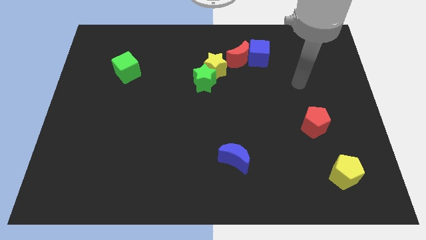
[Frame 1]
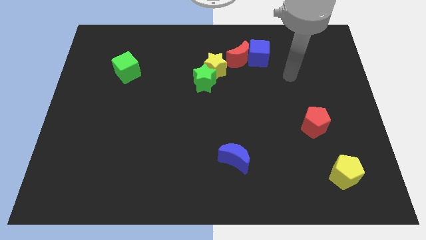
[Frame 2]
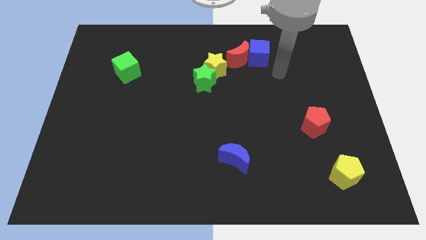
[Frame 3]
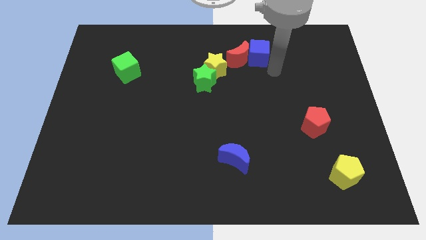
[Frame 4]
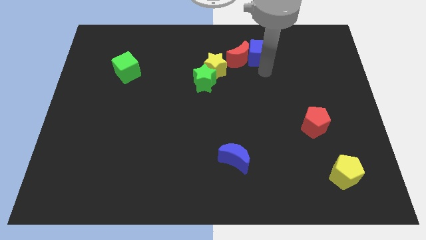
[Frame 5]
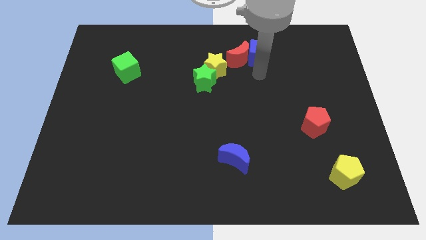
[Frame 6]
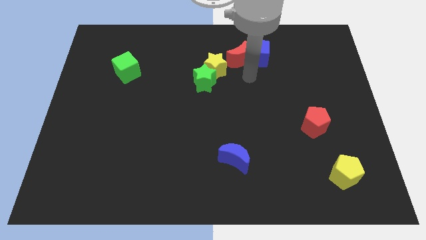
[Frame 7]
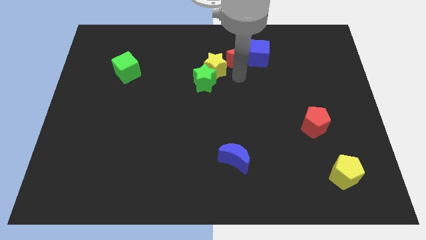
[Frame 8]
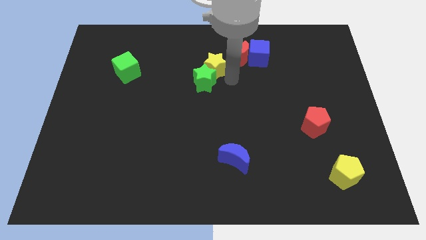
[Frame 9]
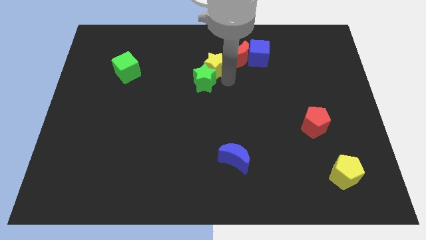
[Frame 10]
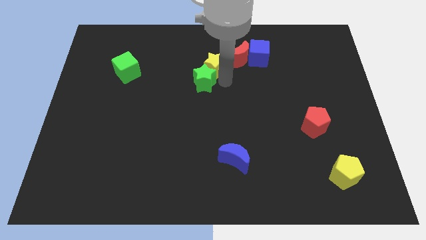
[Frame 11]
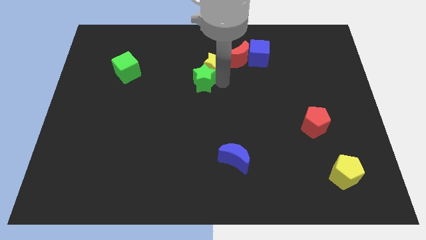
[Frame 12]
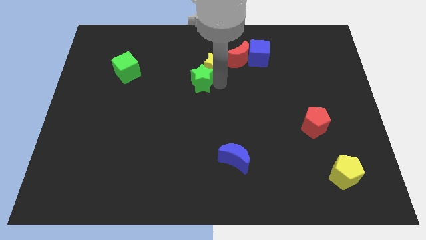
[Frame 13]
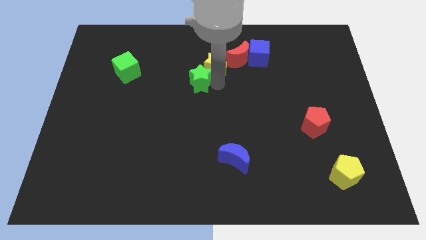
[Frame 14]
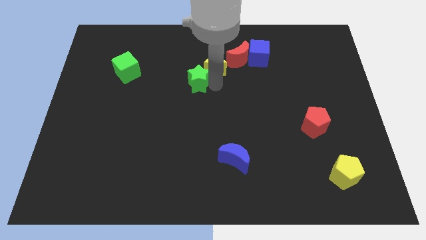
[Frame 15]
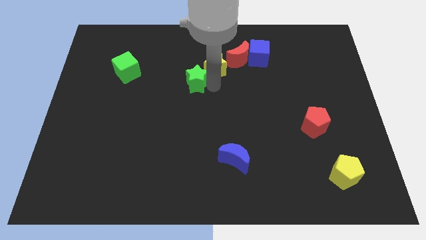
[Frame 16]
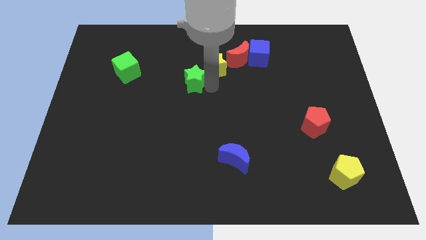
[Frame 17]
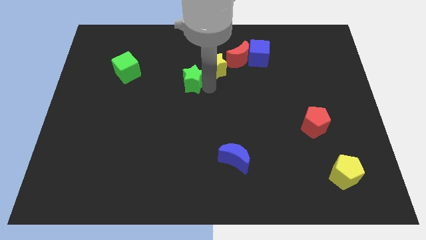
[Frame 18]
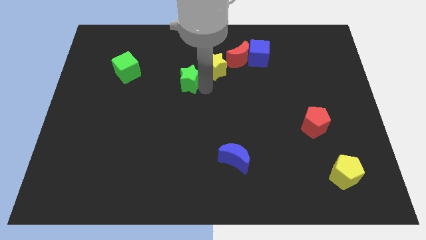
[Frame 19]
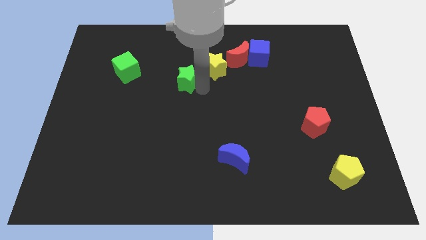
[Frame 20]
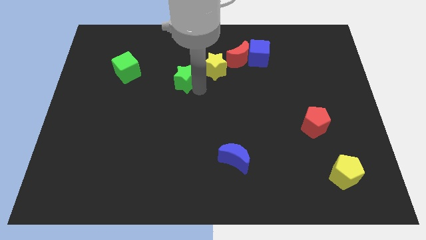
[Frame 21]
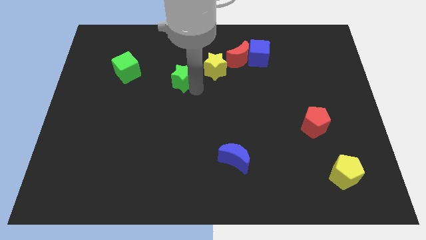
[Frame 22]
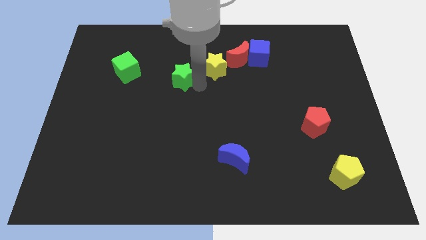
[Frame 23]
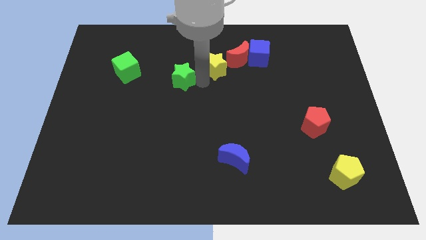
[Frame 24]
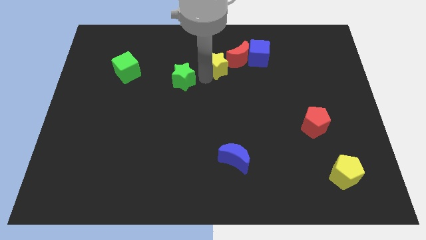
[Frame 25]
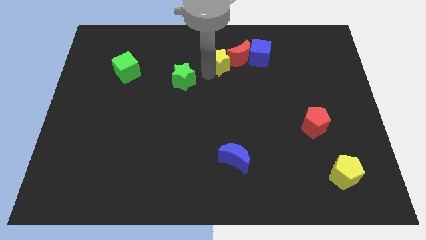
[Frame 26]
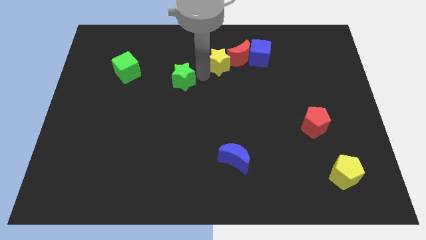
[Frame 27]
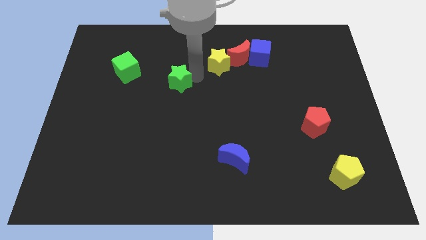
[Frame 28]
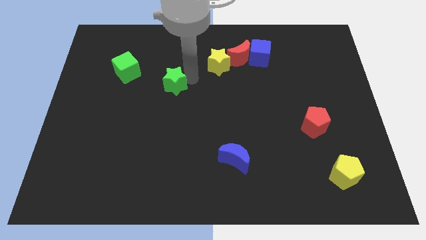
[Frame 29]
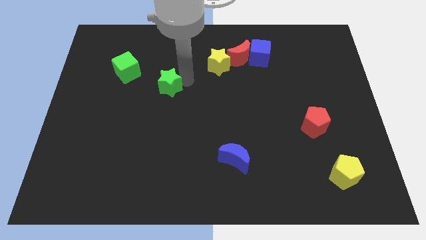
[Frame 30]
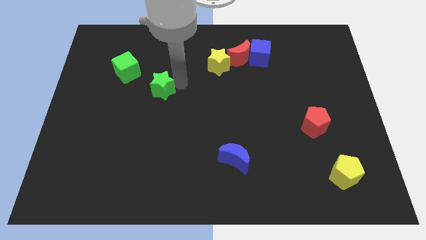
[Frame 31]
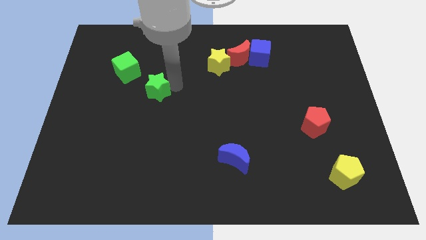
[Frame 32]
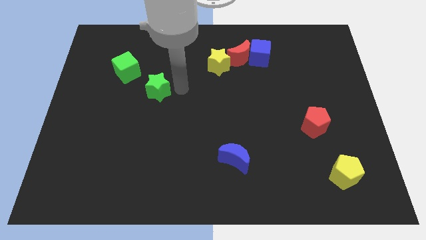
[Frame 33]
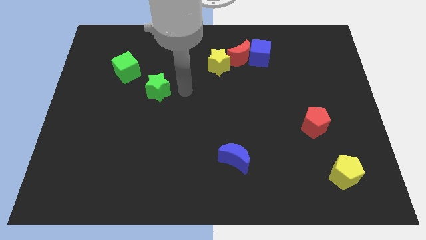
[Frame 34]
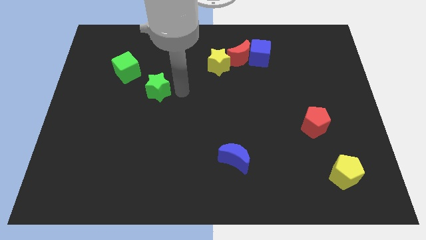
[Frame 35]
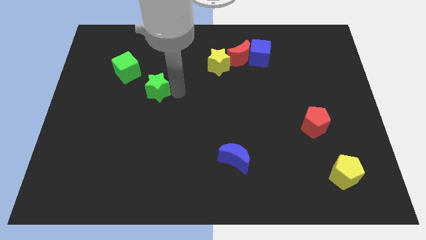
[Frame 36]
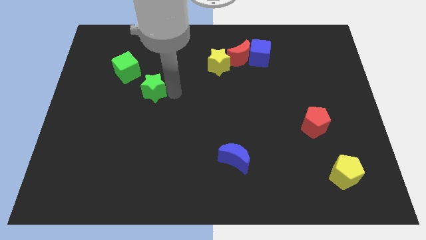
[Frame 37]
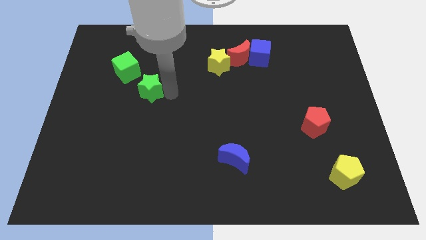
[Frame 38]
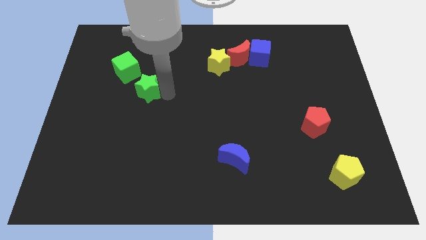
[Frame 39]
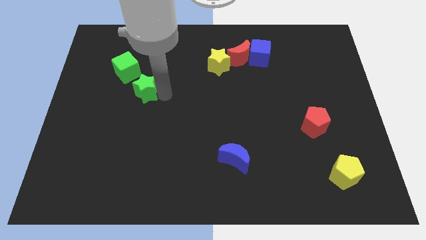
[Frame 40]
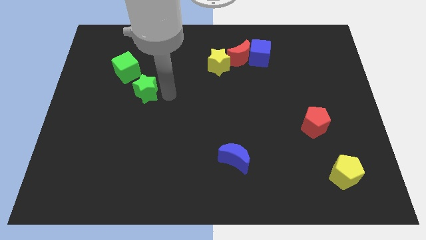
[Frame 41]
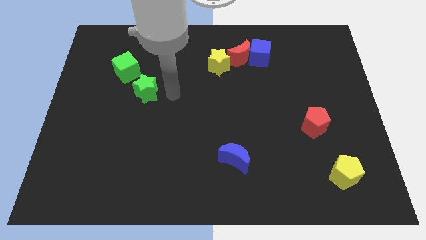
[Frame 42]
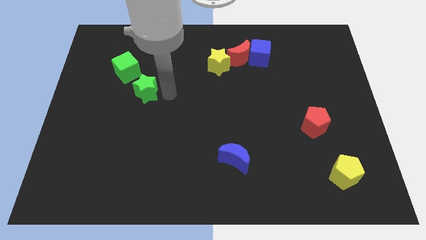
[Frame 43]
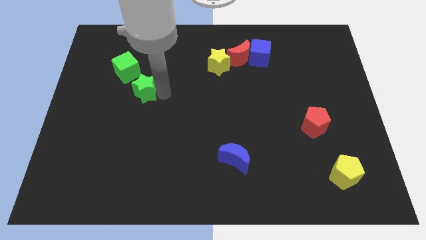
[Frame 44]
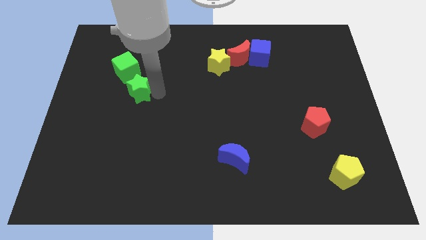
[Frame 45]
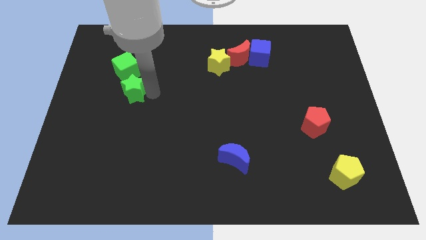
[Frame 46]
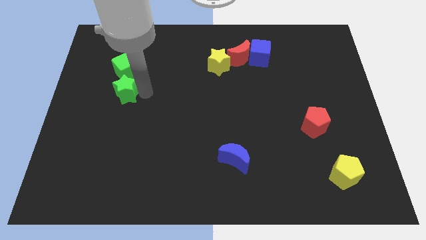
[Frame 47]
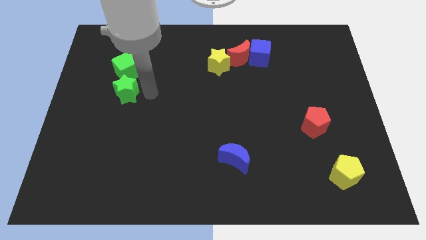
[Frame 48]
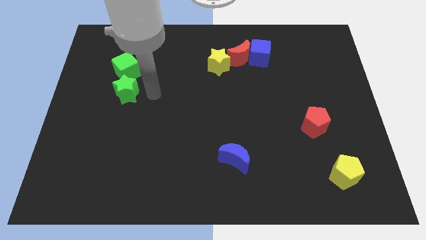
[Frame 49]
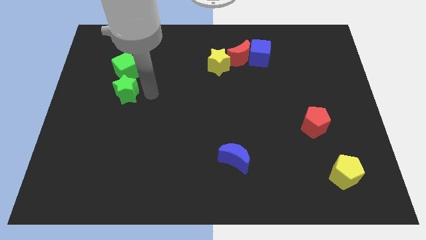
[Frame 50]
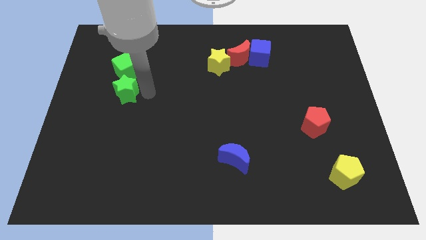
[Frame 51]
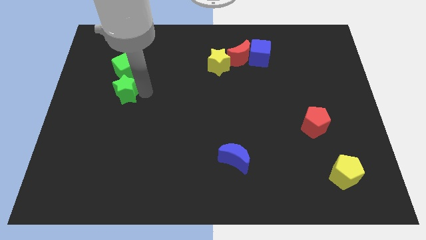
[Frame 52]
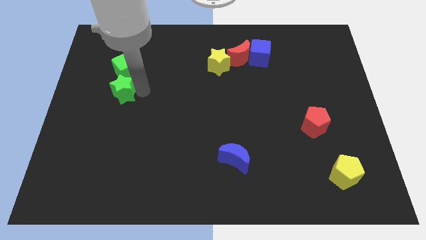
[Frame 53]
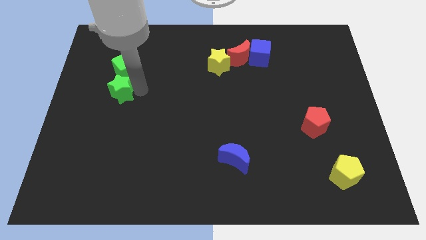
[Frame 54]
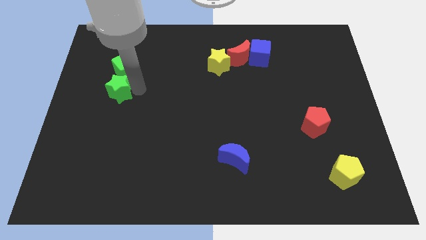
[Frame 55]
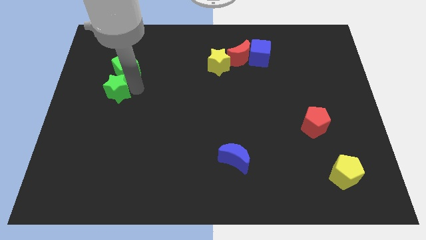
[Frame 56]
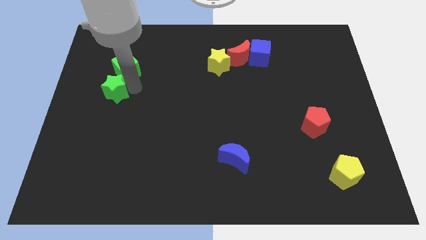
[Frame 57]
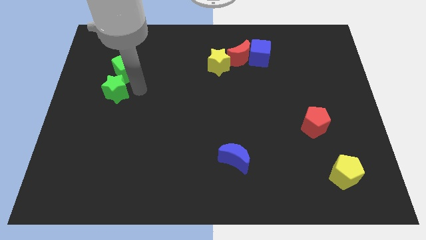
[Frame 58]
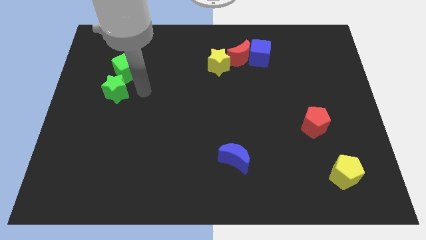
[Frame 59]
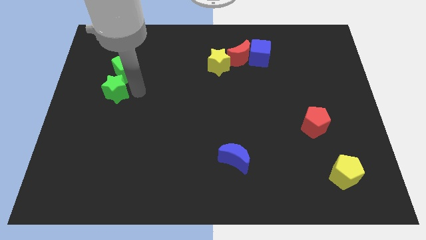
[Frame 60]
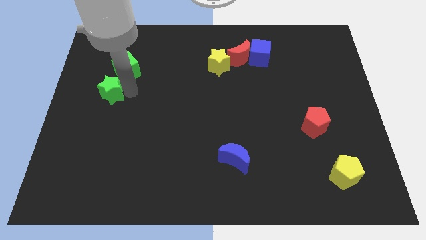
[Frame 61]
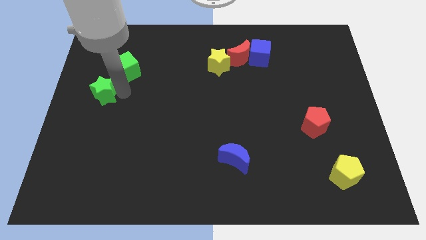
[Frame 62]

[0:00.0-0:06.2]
push the green star to the left side

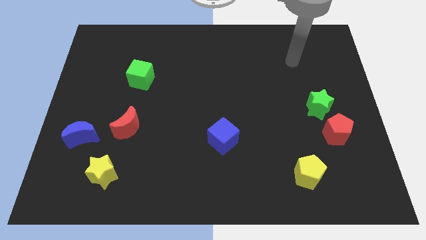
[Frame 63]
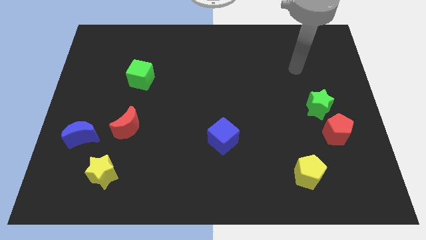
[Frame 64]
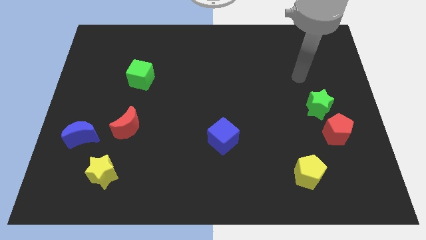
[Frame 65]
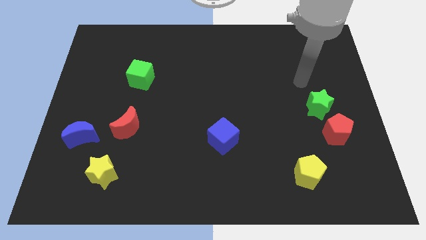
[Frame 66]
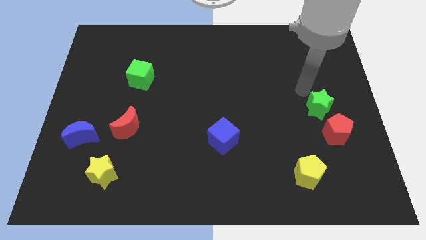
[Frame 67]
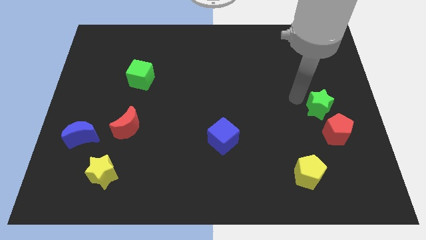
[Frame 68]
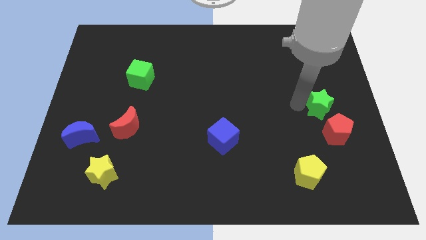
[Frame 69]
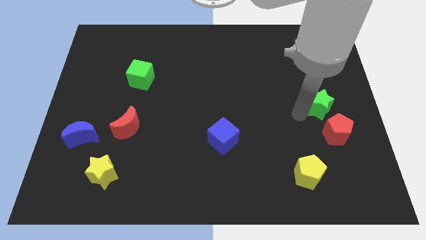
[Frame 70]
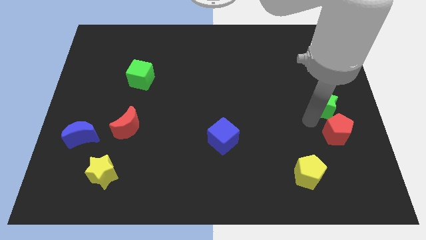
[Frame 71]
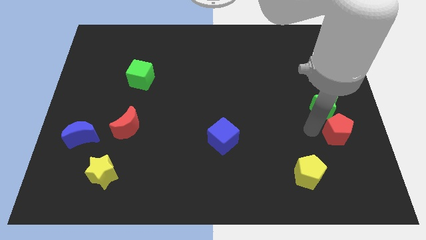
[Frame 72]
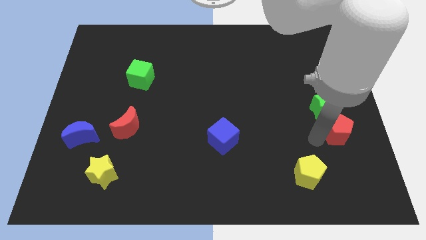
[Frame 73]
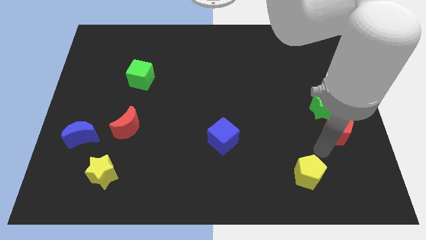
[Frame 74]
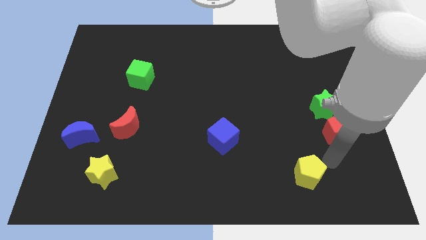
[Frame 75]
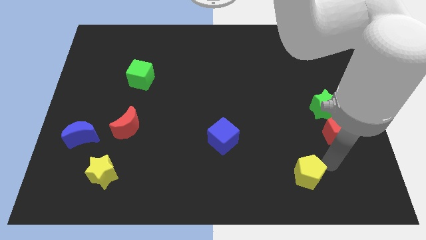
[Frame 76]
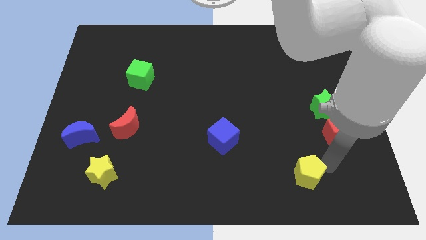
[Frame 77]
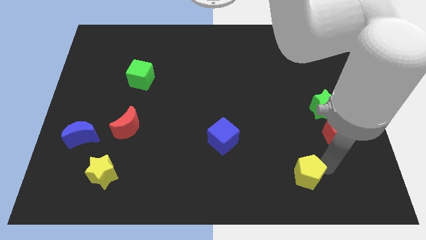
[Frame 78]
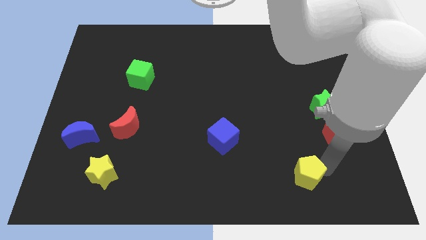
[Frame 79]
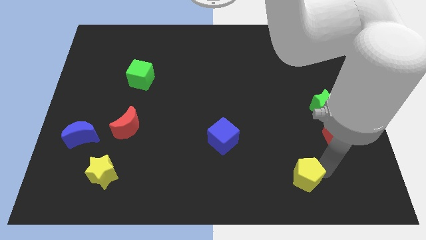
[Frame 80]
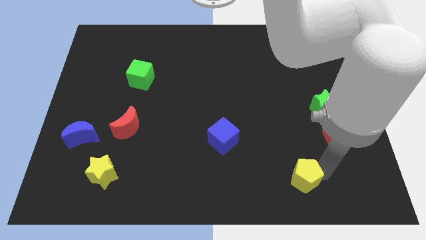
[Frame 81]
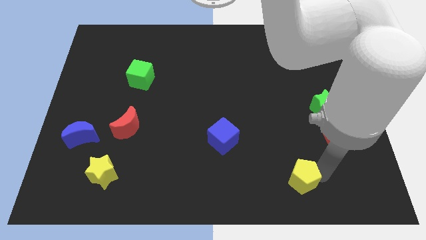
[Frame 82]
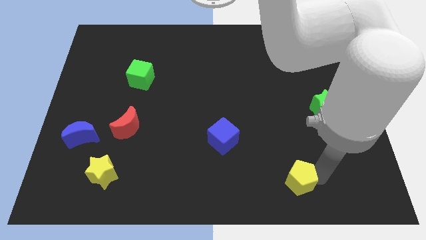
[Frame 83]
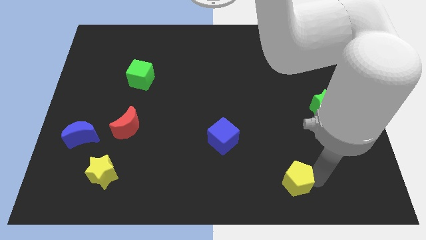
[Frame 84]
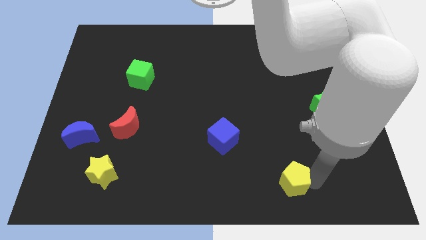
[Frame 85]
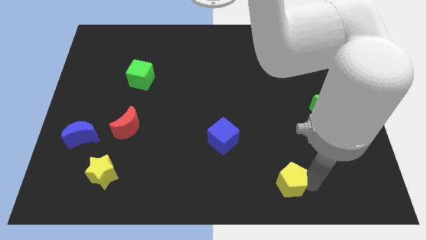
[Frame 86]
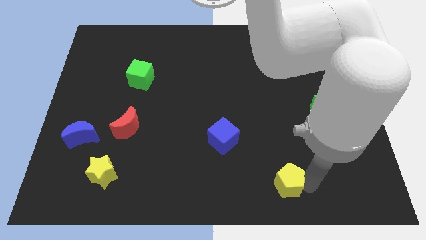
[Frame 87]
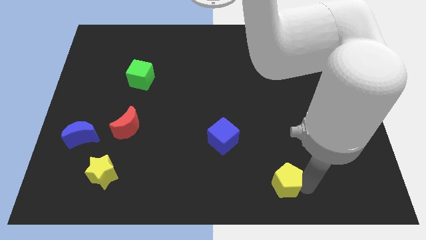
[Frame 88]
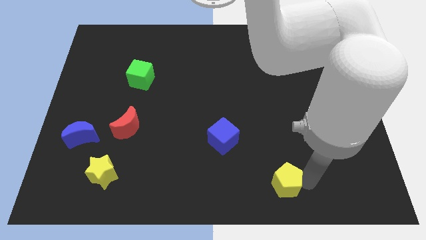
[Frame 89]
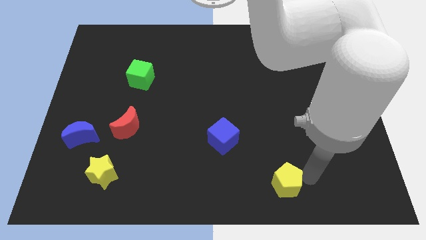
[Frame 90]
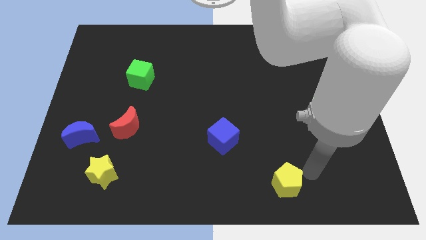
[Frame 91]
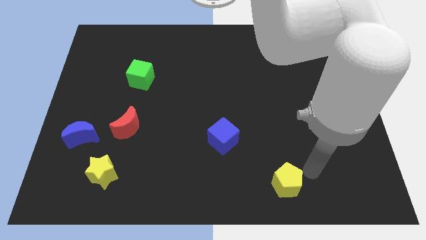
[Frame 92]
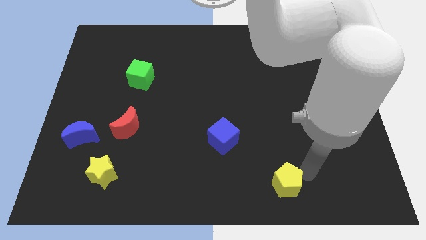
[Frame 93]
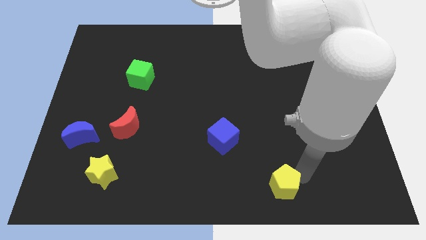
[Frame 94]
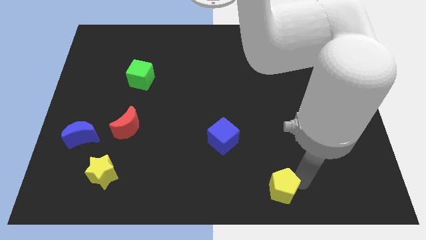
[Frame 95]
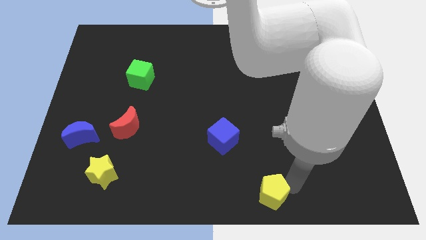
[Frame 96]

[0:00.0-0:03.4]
move the yellow pentagon to the bottom side
